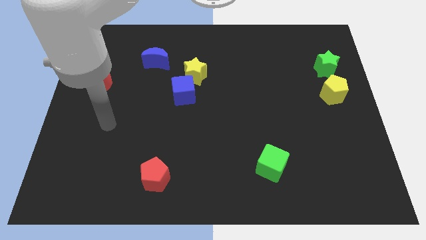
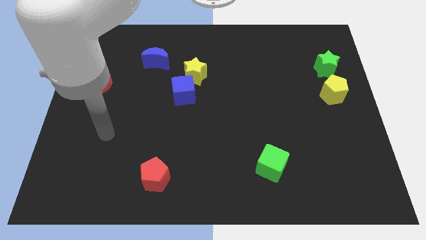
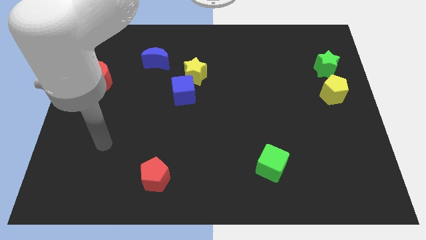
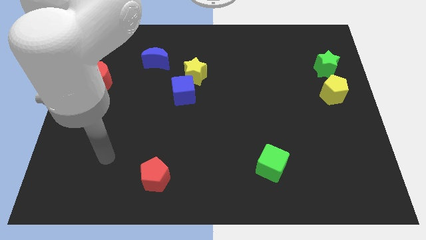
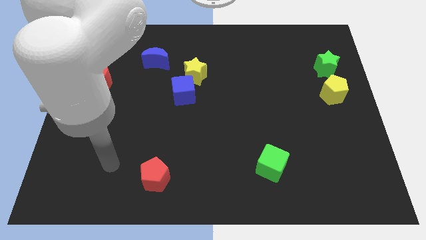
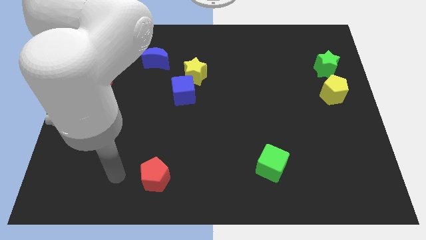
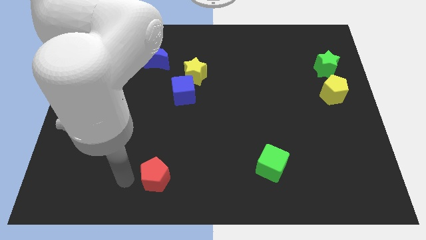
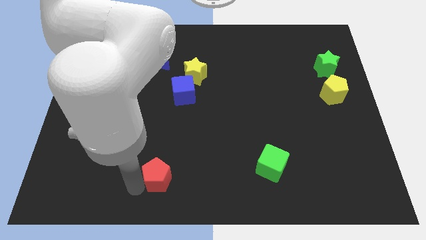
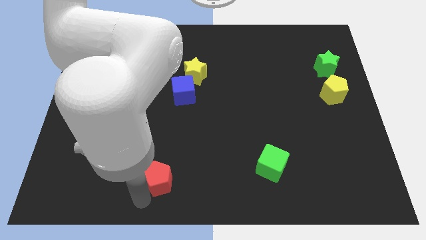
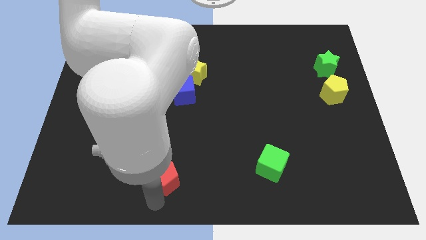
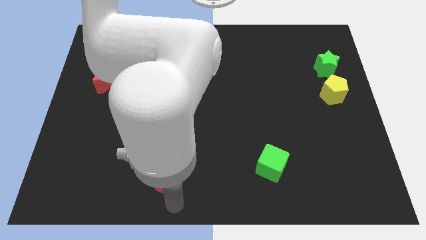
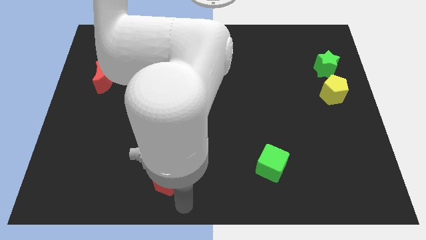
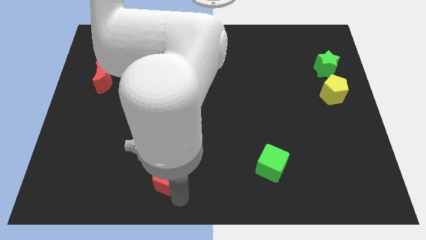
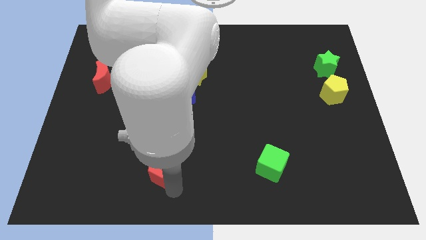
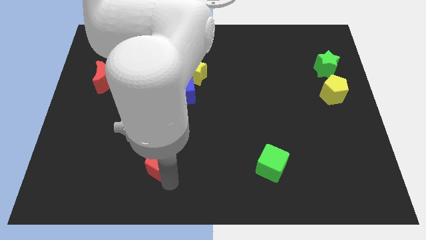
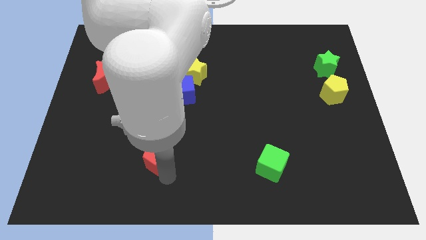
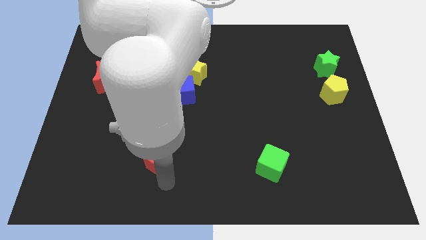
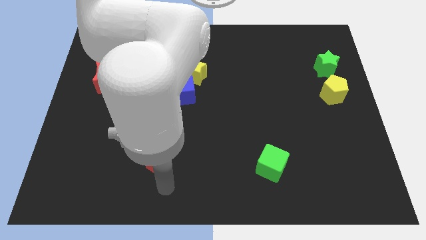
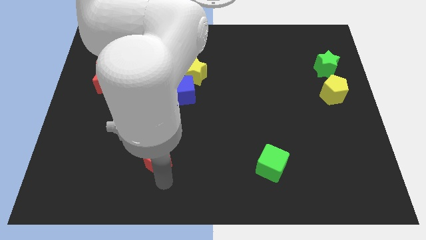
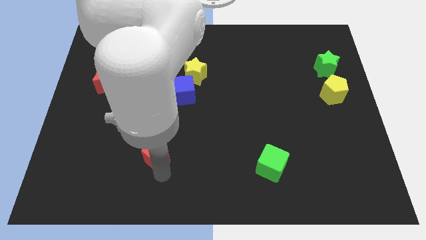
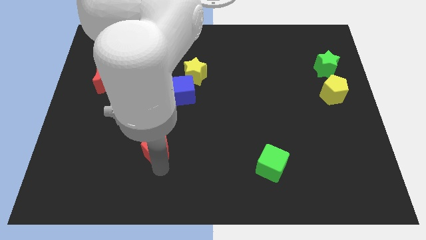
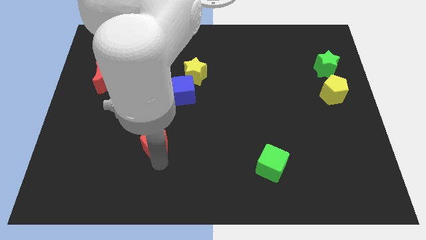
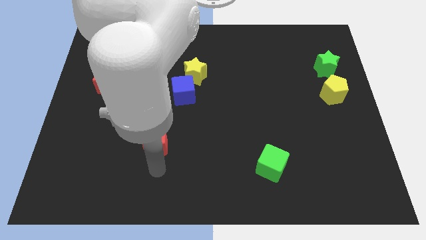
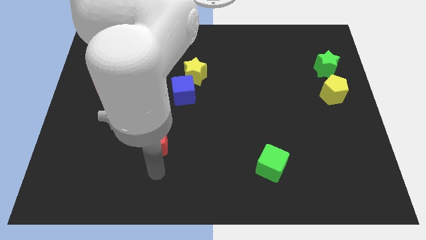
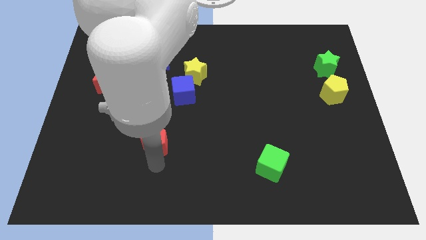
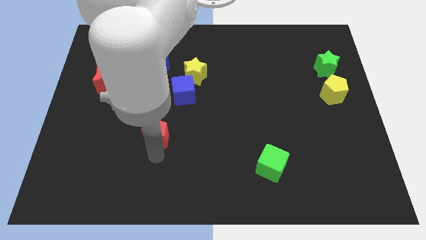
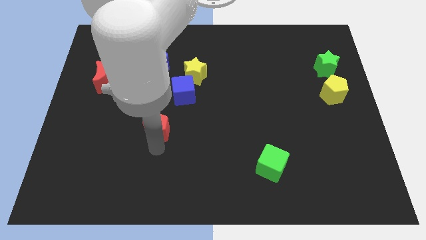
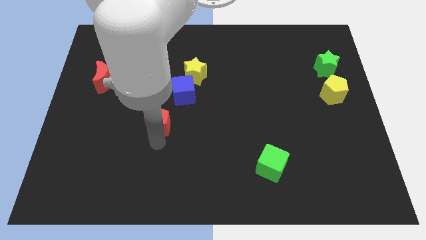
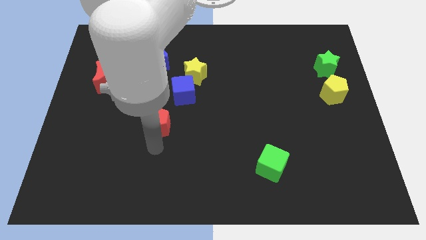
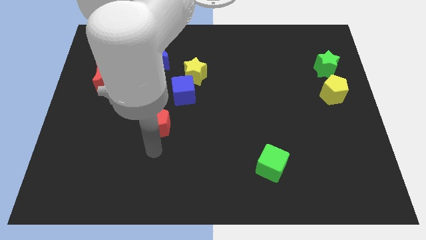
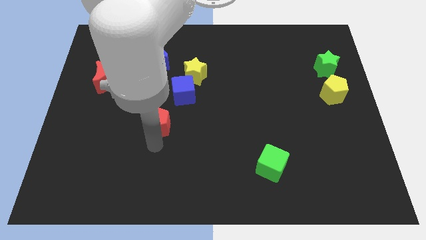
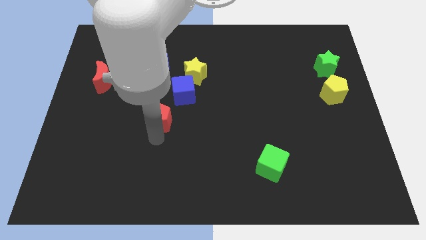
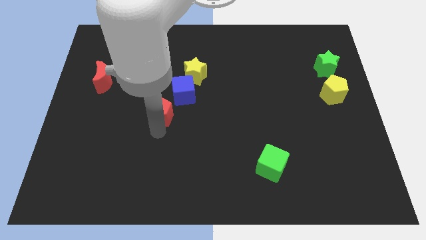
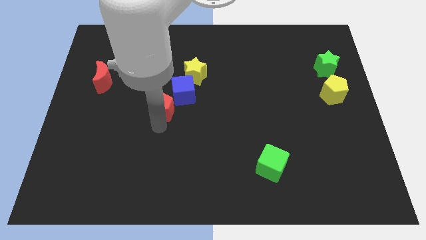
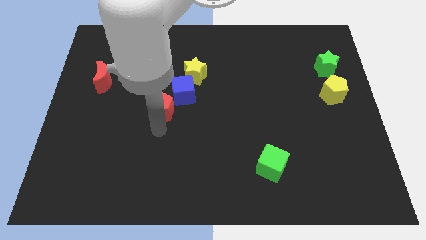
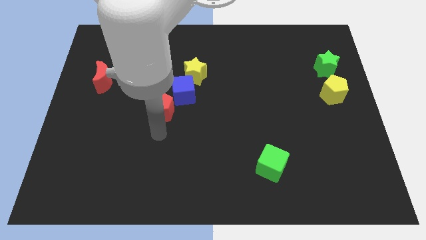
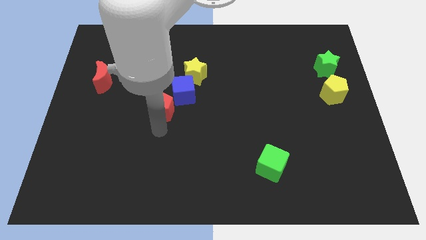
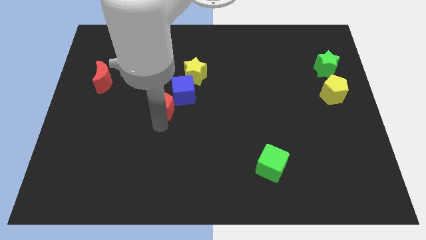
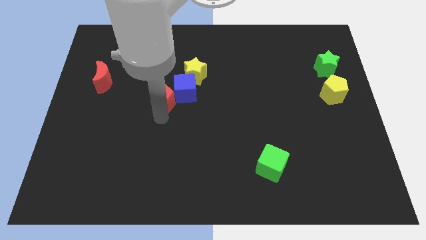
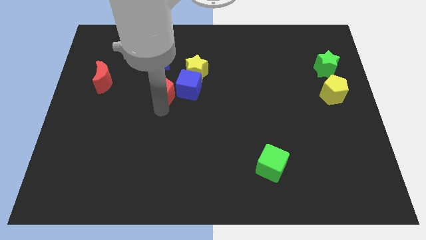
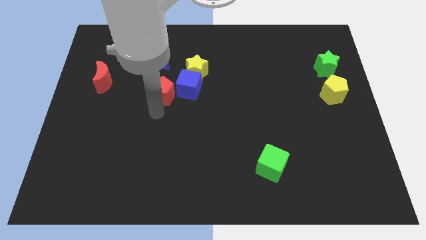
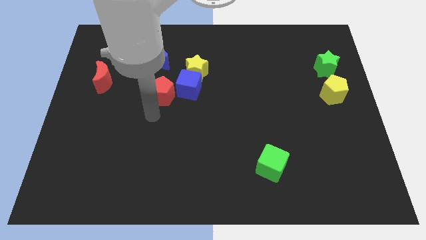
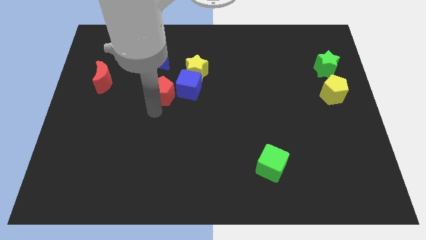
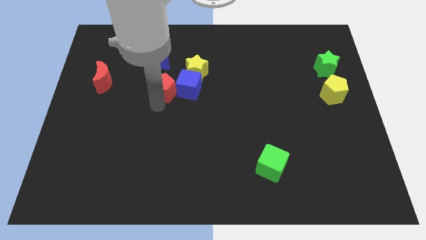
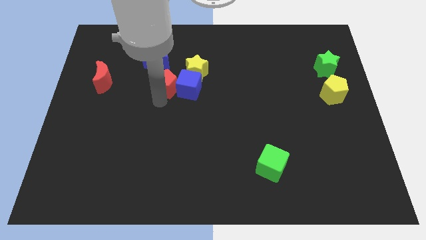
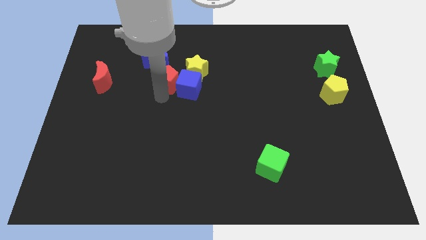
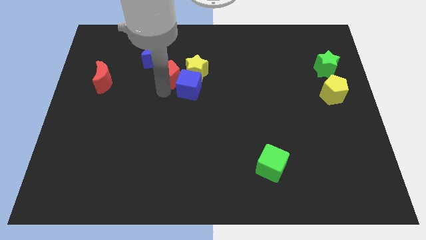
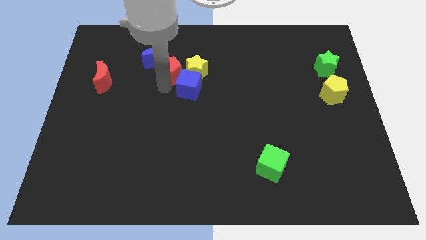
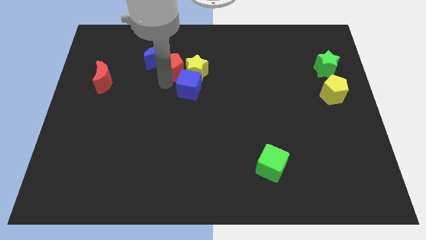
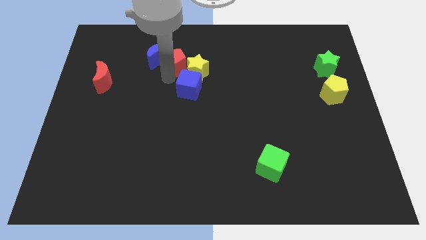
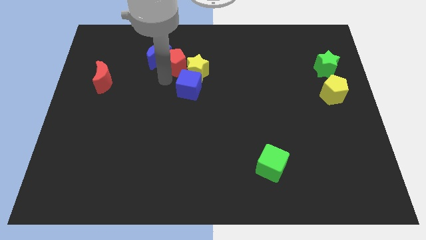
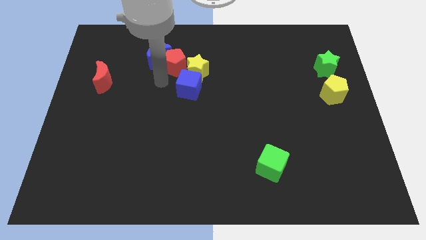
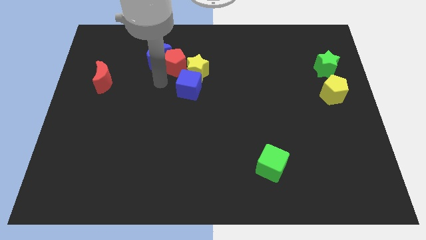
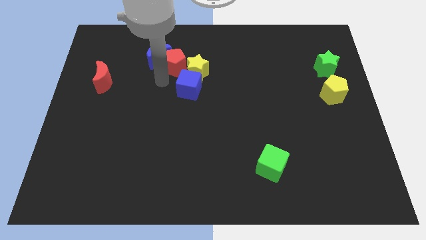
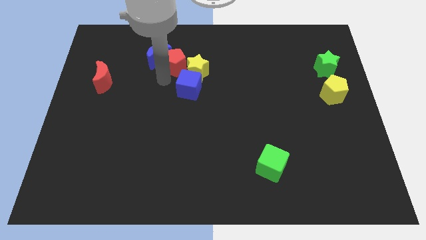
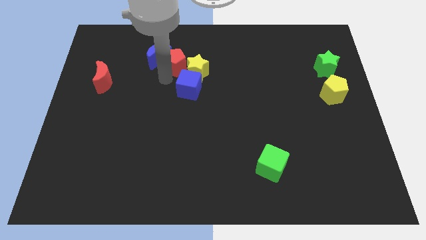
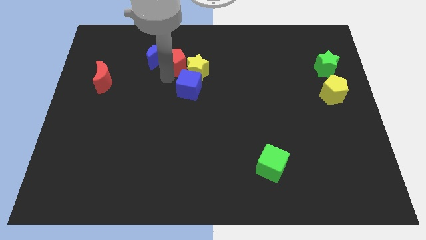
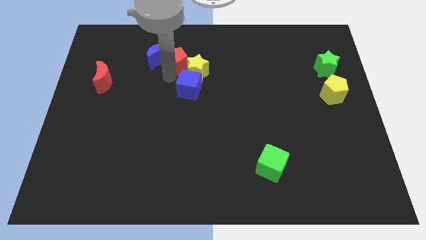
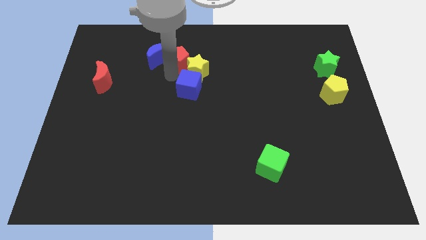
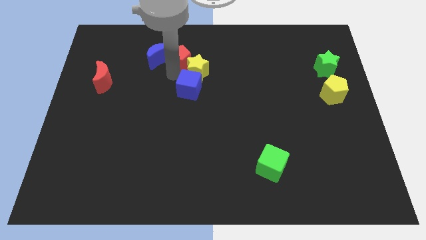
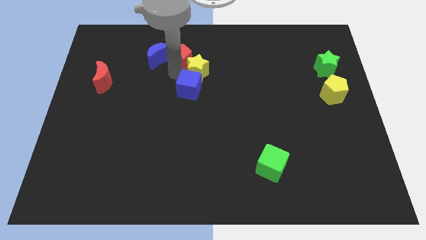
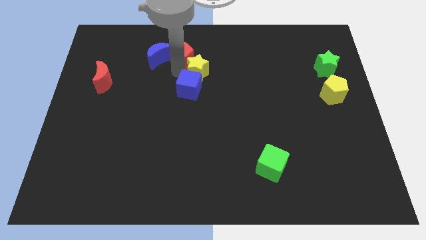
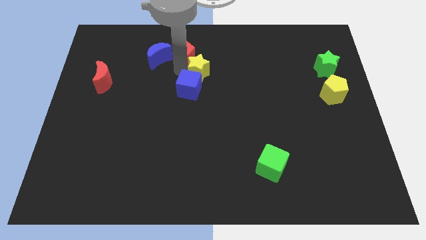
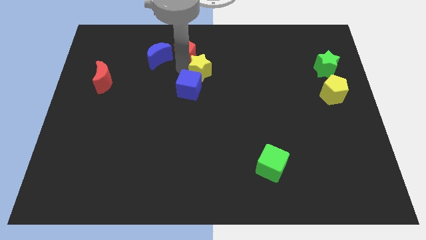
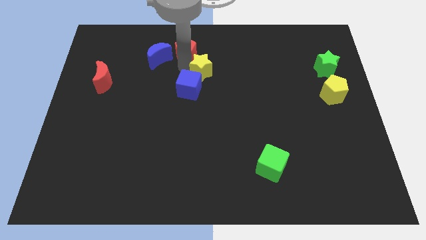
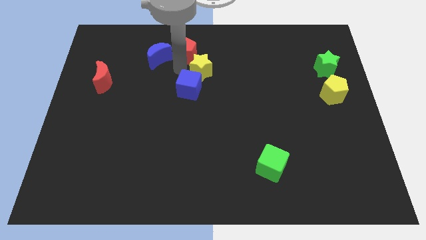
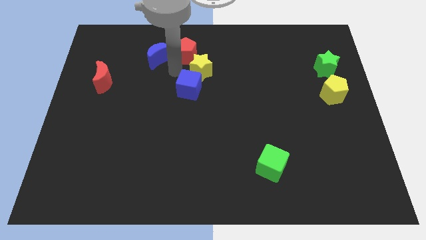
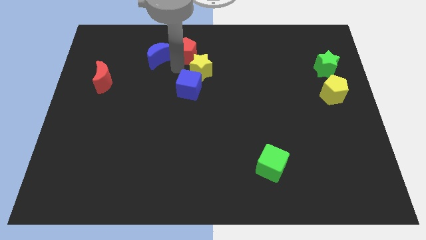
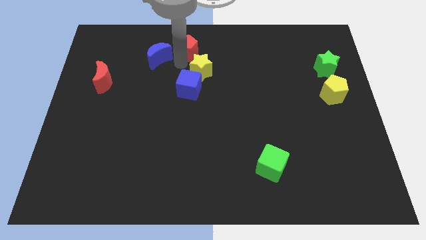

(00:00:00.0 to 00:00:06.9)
put the red pentagon to the top
